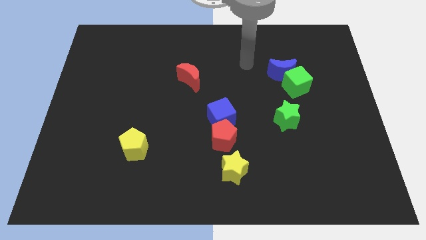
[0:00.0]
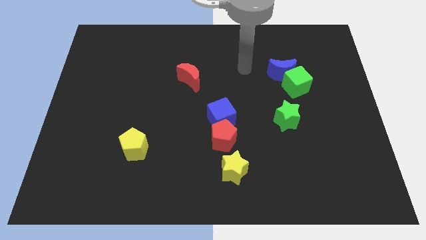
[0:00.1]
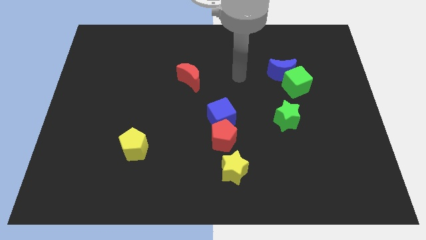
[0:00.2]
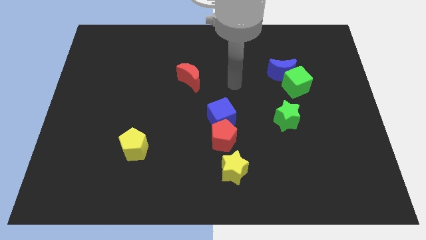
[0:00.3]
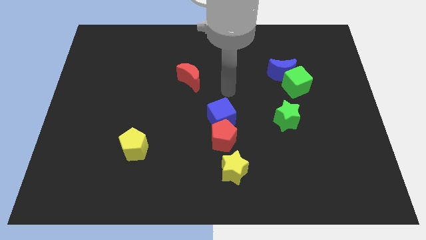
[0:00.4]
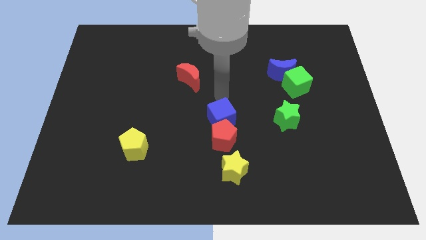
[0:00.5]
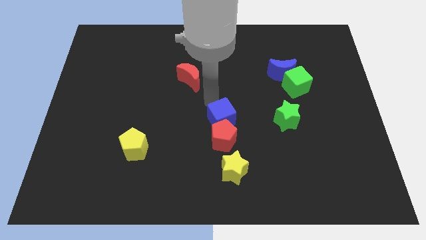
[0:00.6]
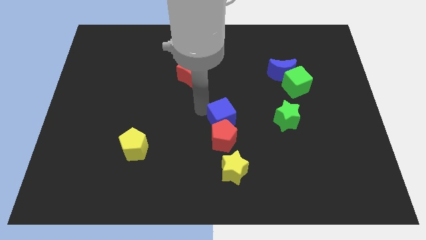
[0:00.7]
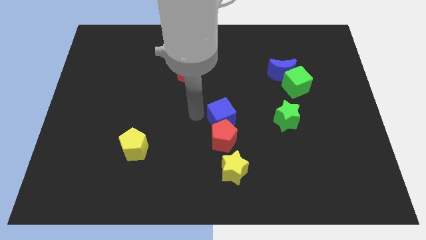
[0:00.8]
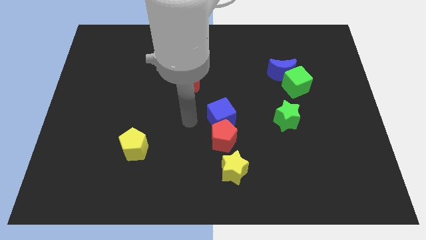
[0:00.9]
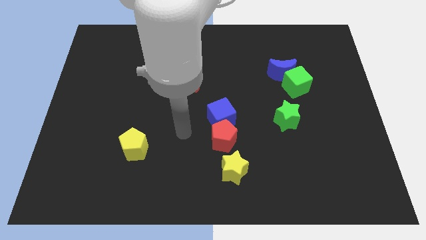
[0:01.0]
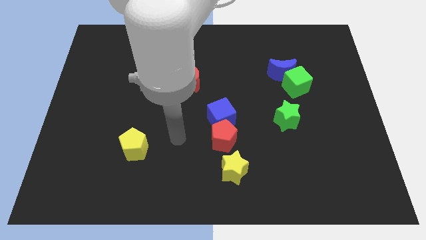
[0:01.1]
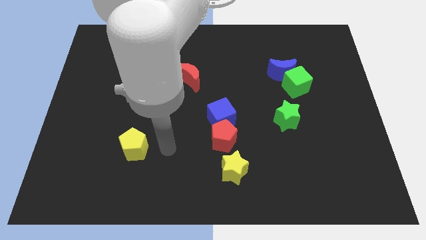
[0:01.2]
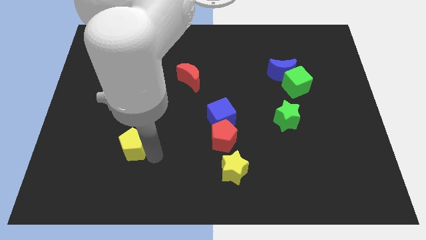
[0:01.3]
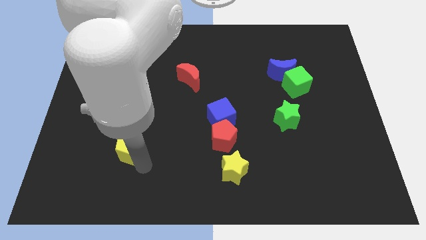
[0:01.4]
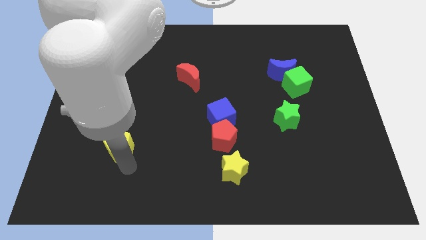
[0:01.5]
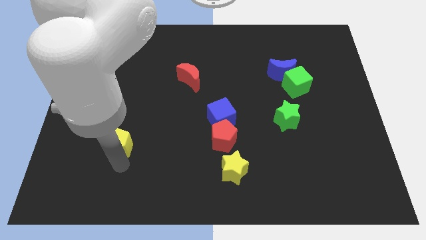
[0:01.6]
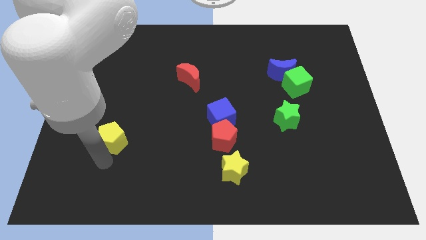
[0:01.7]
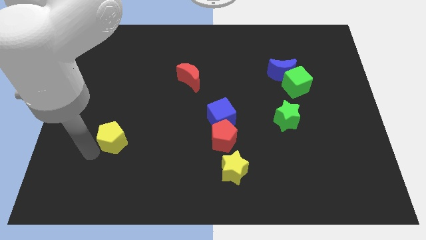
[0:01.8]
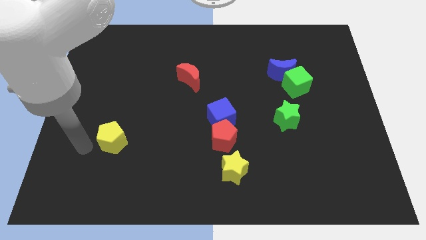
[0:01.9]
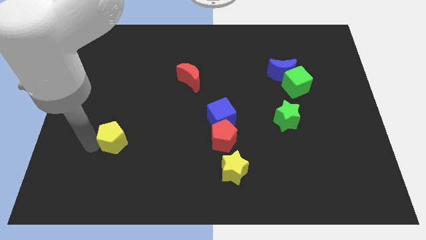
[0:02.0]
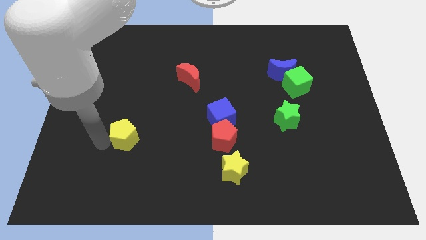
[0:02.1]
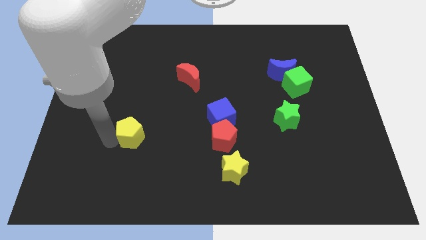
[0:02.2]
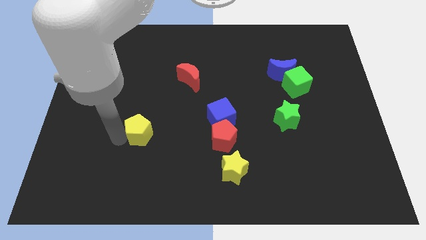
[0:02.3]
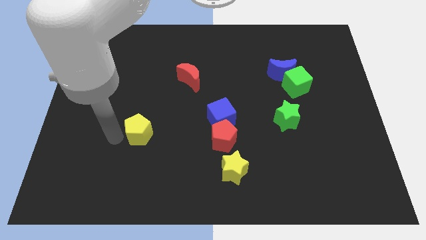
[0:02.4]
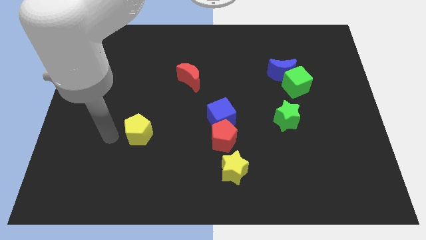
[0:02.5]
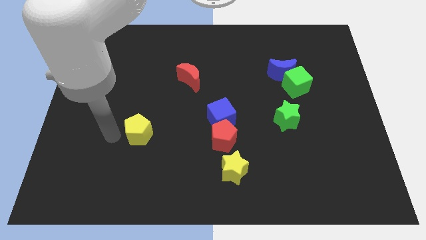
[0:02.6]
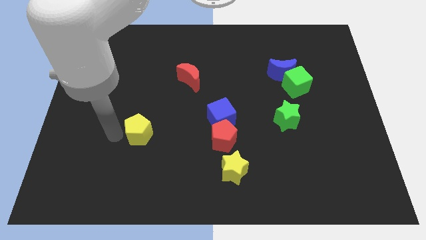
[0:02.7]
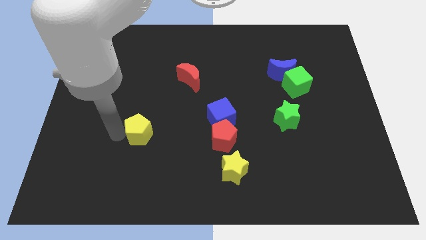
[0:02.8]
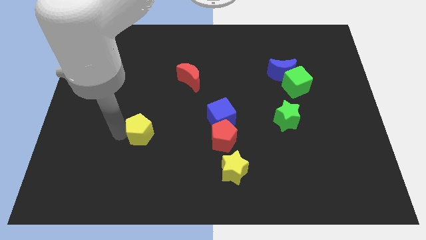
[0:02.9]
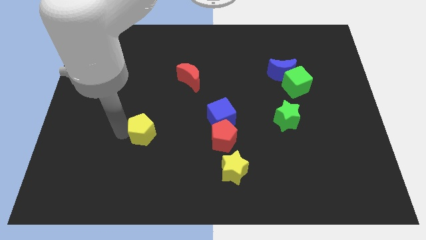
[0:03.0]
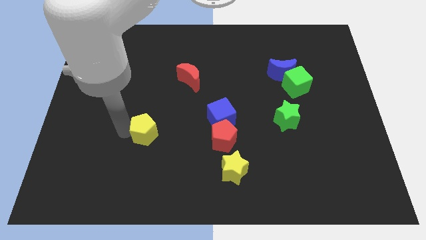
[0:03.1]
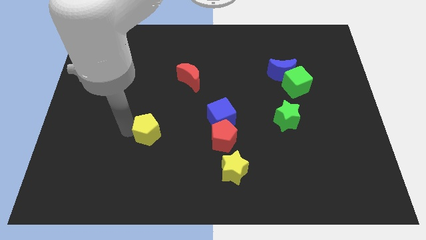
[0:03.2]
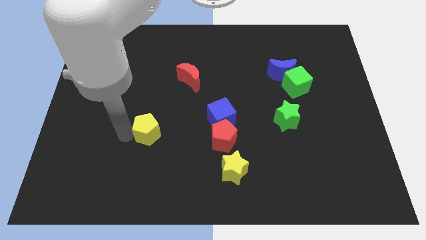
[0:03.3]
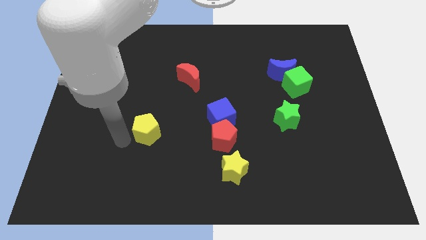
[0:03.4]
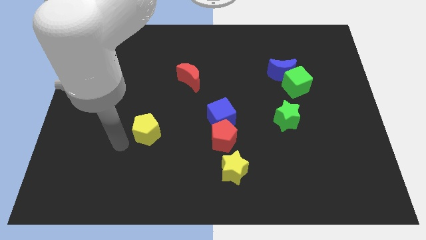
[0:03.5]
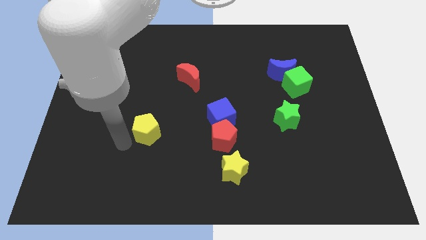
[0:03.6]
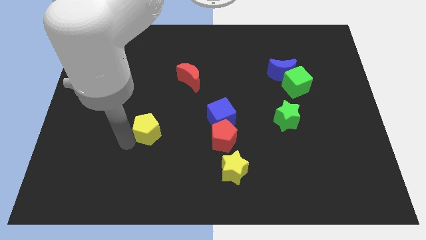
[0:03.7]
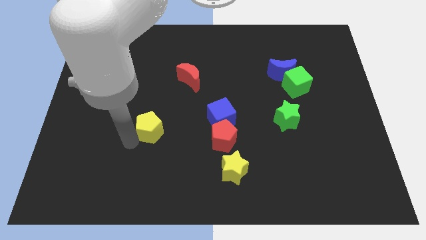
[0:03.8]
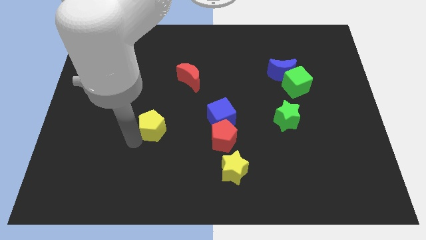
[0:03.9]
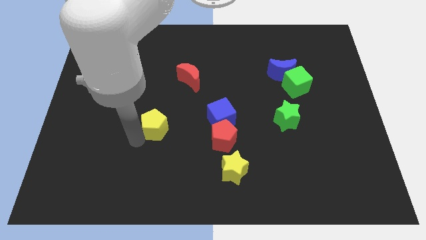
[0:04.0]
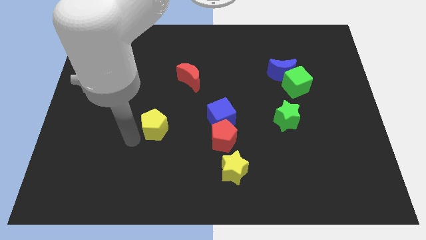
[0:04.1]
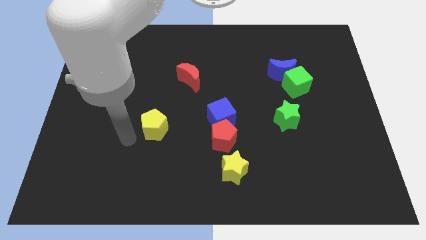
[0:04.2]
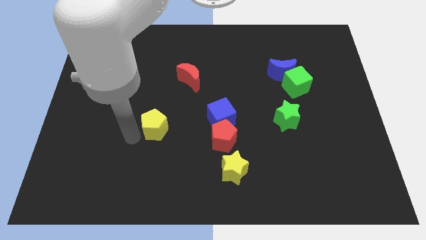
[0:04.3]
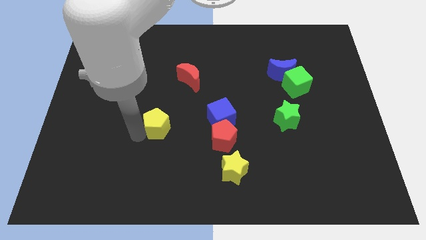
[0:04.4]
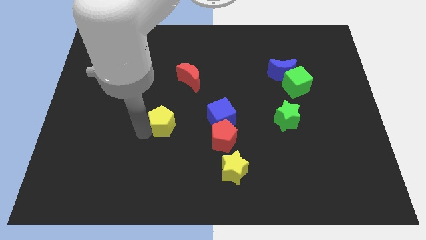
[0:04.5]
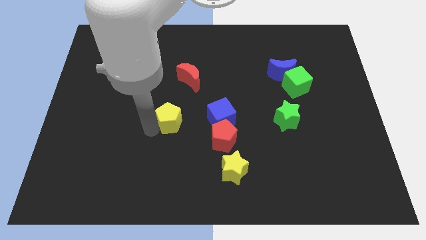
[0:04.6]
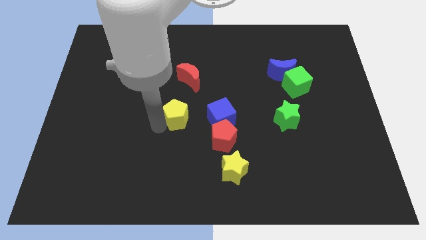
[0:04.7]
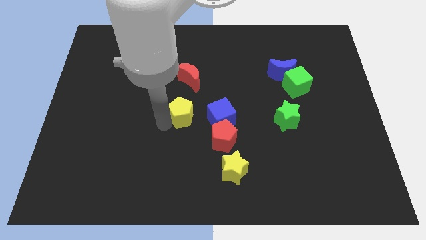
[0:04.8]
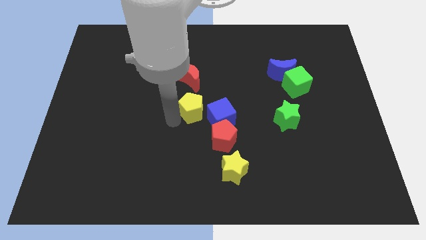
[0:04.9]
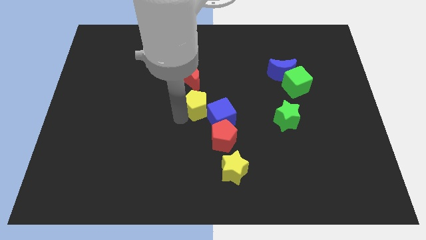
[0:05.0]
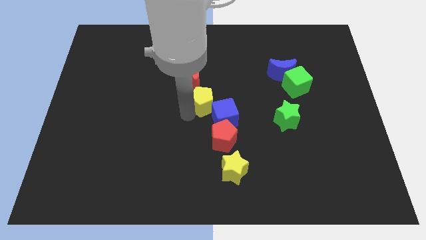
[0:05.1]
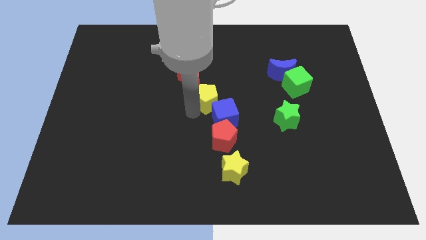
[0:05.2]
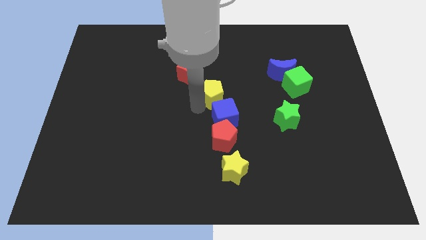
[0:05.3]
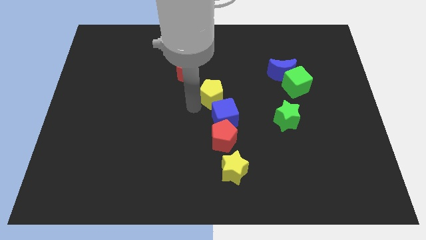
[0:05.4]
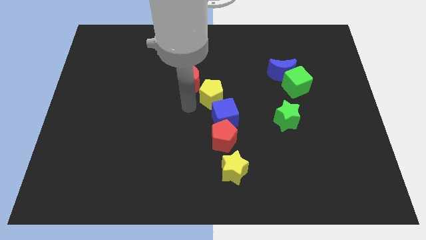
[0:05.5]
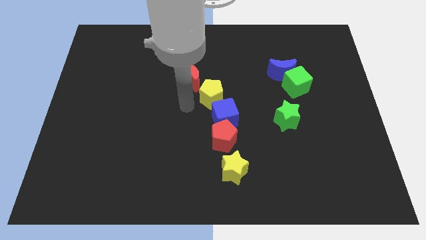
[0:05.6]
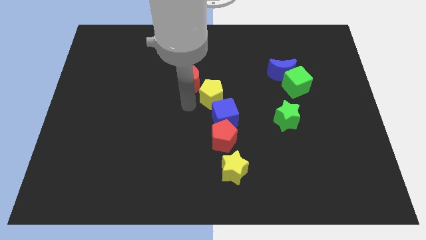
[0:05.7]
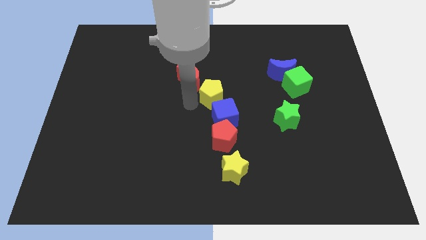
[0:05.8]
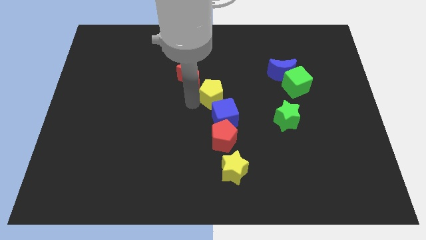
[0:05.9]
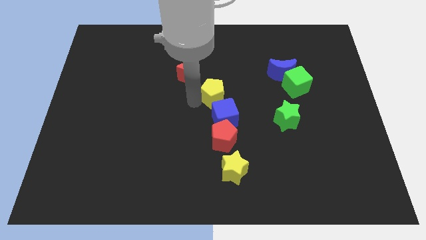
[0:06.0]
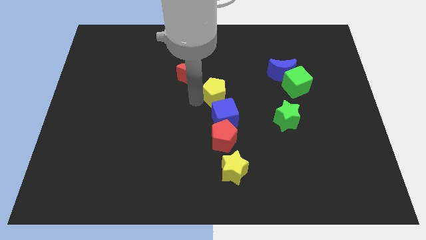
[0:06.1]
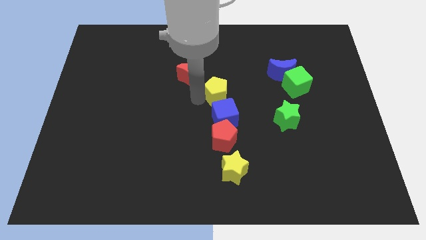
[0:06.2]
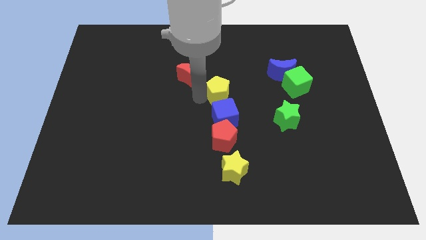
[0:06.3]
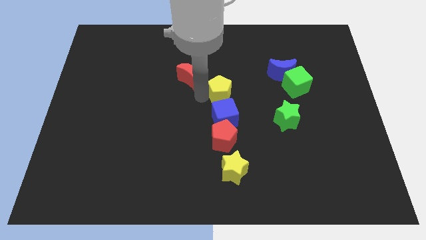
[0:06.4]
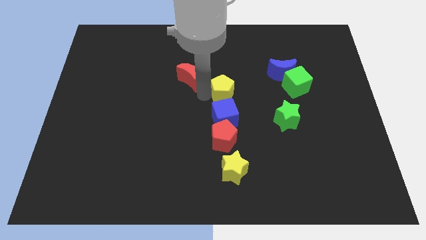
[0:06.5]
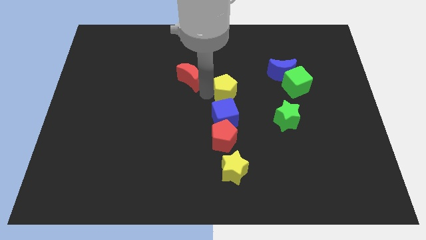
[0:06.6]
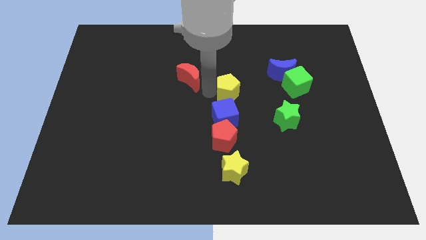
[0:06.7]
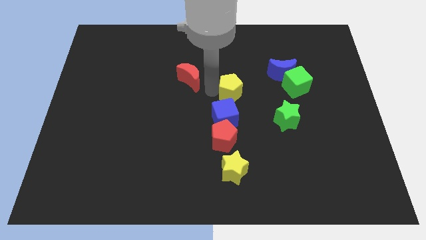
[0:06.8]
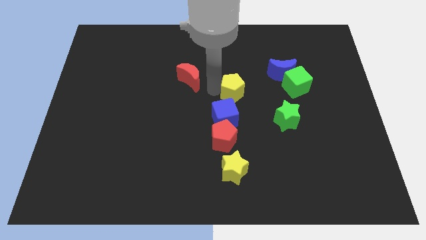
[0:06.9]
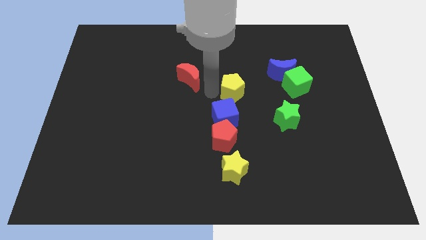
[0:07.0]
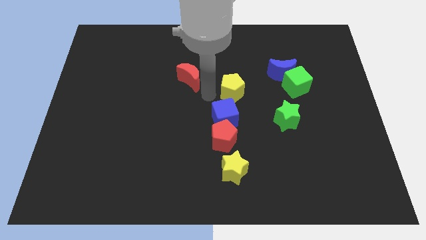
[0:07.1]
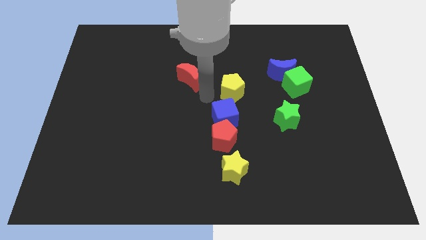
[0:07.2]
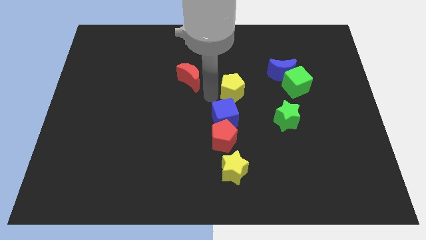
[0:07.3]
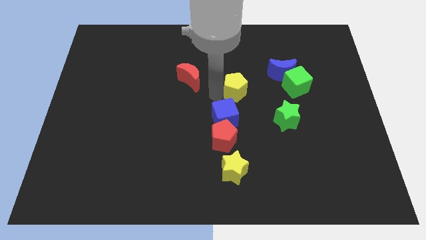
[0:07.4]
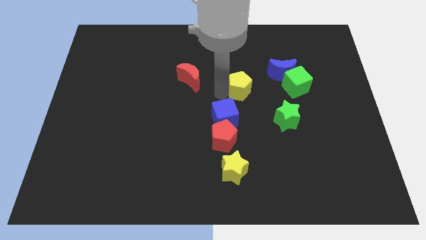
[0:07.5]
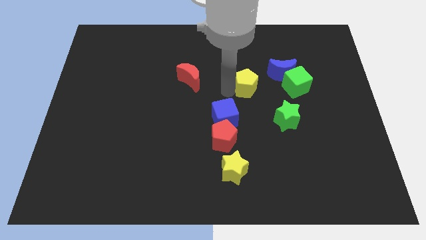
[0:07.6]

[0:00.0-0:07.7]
push the yellow pentagon to the bottom left of the blue moon
